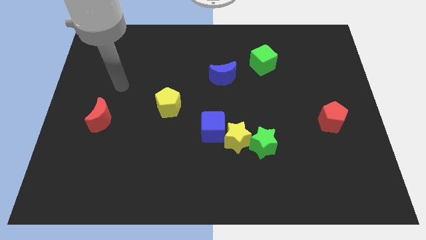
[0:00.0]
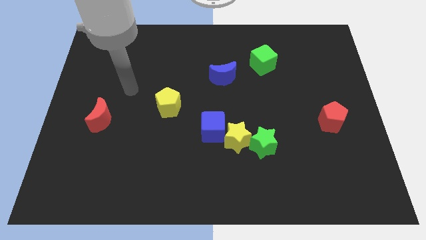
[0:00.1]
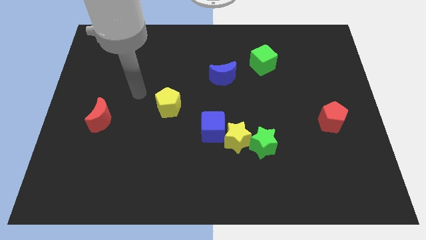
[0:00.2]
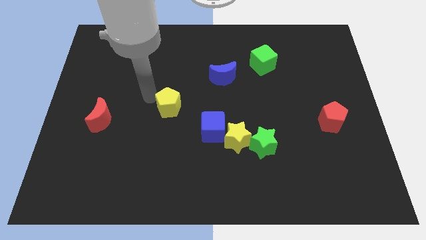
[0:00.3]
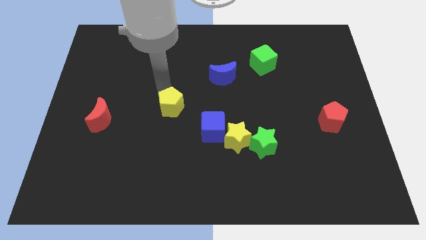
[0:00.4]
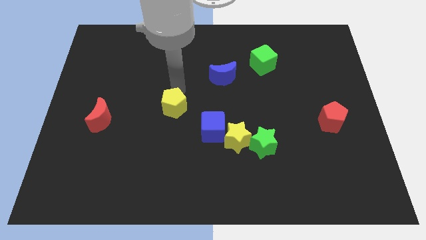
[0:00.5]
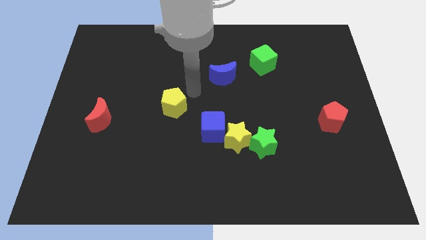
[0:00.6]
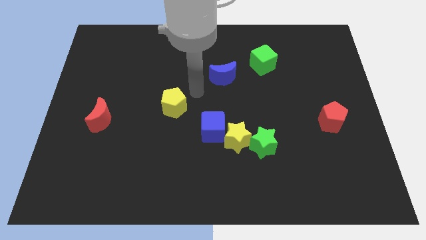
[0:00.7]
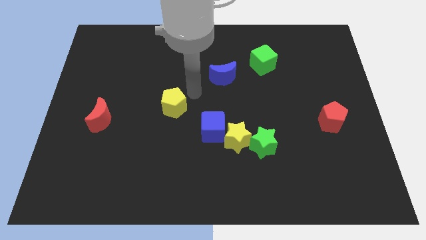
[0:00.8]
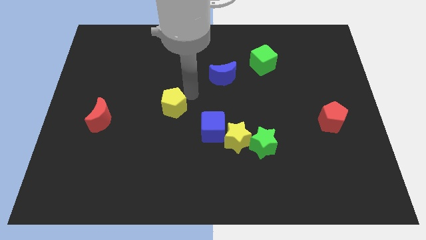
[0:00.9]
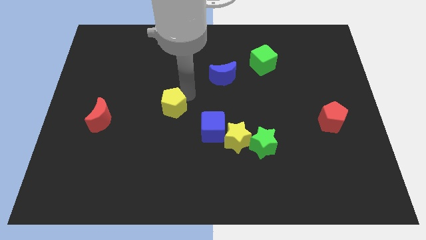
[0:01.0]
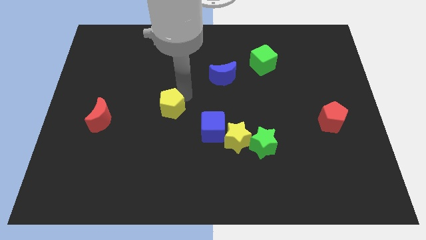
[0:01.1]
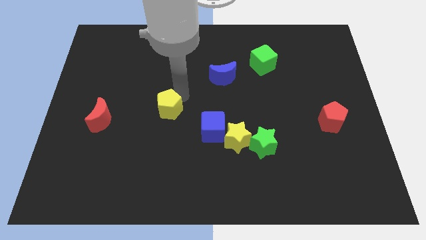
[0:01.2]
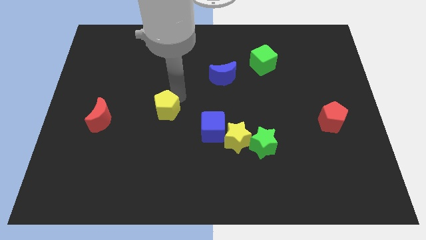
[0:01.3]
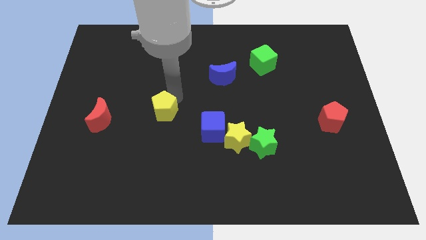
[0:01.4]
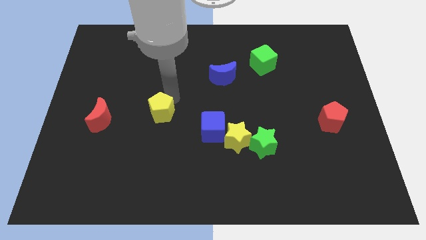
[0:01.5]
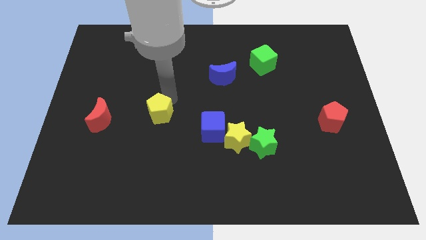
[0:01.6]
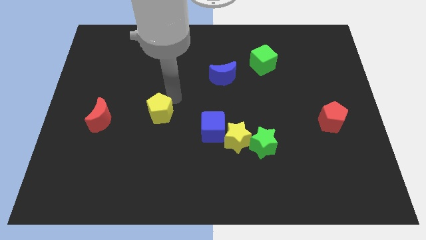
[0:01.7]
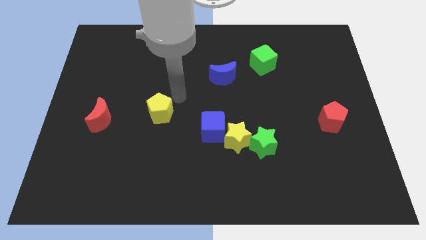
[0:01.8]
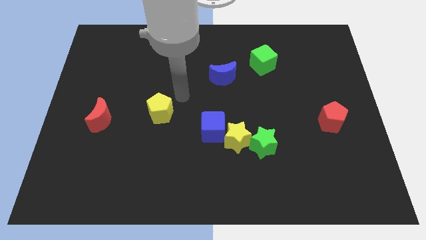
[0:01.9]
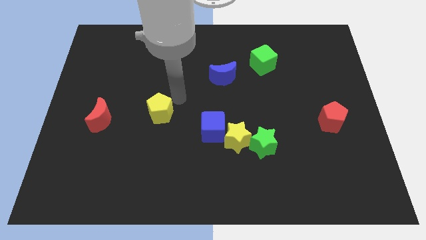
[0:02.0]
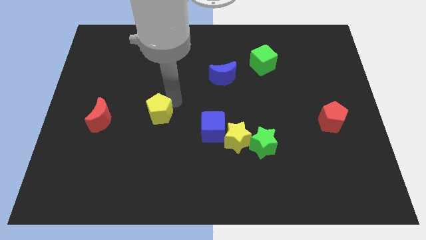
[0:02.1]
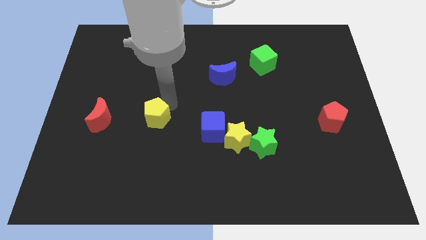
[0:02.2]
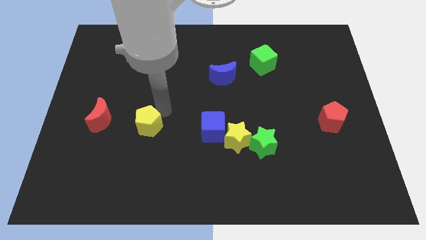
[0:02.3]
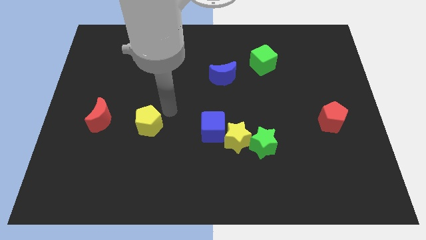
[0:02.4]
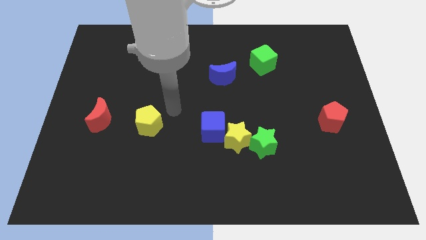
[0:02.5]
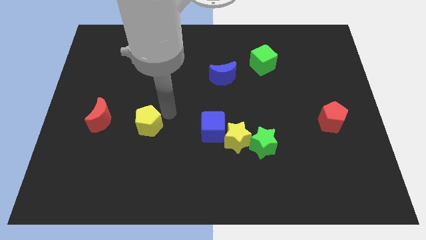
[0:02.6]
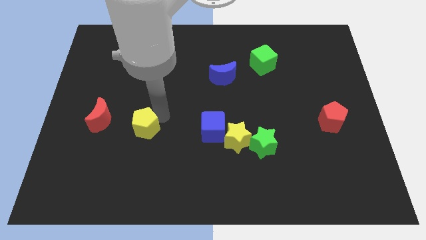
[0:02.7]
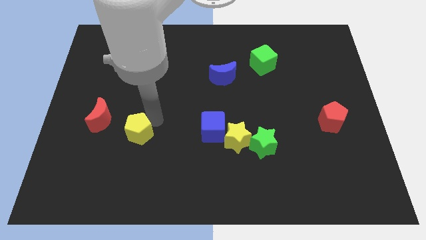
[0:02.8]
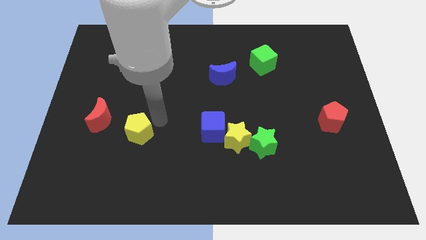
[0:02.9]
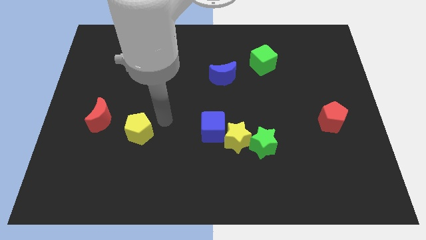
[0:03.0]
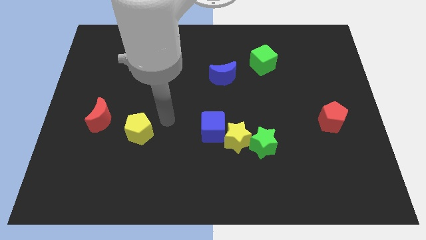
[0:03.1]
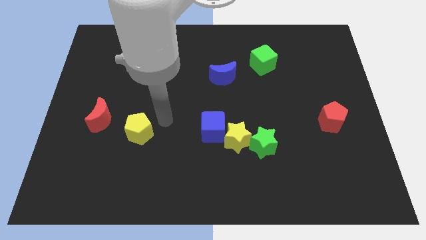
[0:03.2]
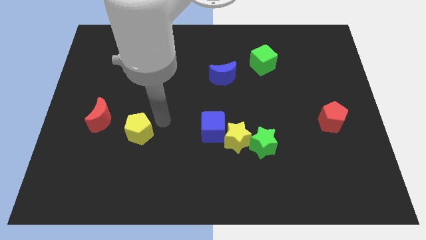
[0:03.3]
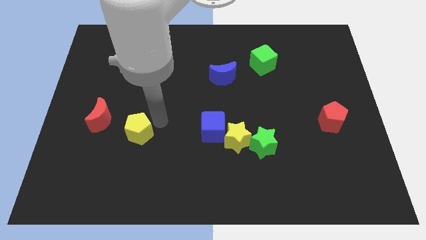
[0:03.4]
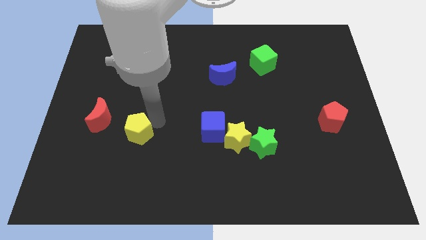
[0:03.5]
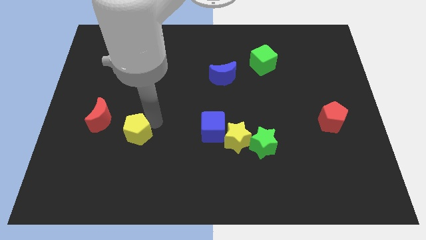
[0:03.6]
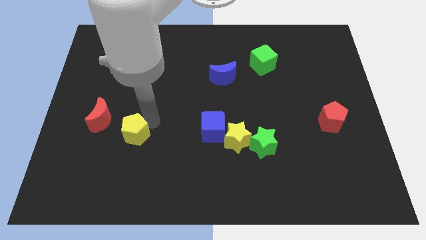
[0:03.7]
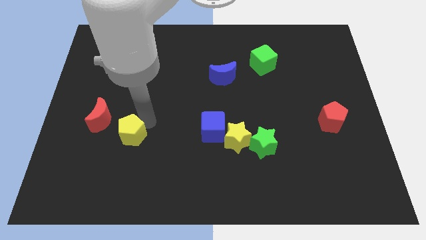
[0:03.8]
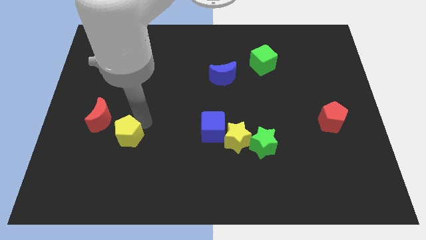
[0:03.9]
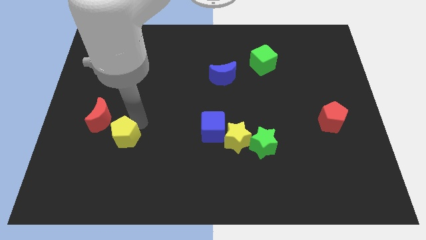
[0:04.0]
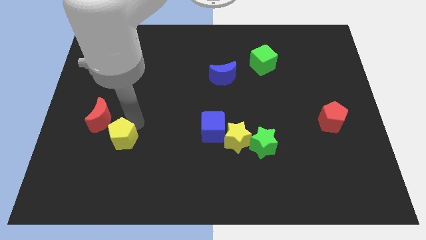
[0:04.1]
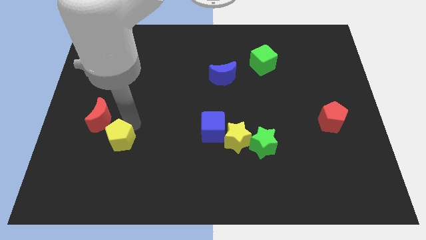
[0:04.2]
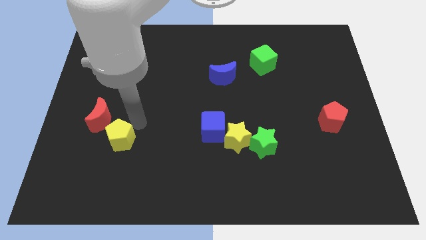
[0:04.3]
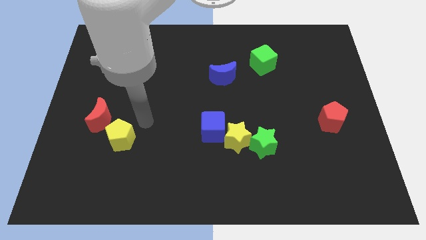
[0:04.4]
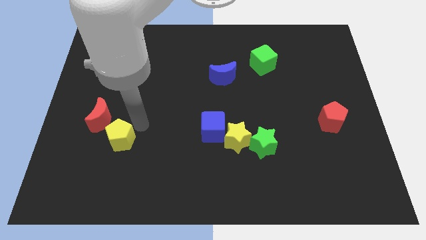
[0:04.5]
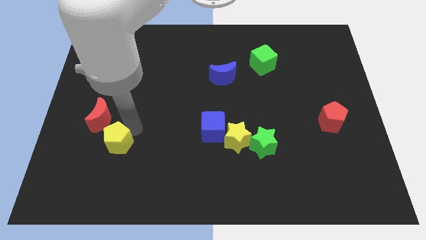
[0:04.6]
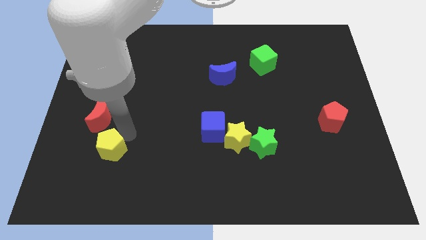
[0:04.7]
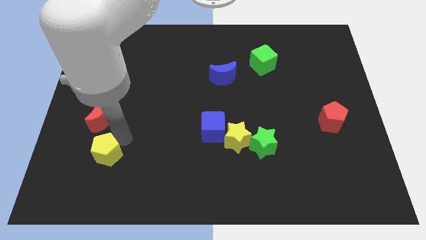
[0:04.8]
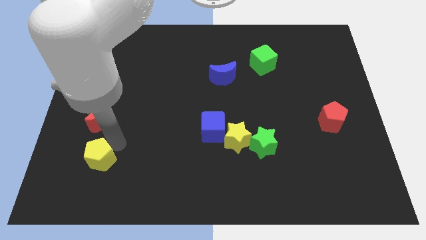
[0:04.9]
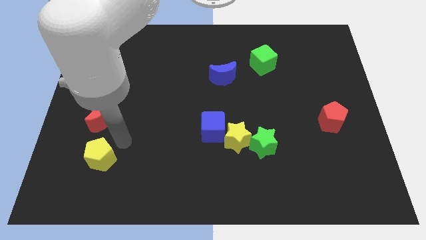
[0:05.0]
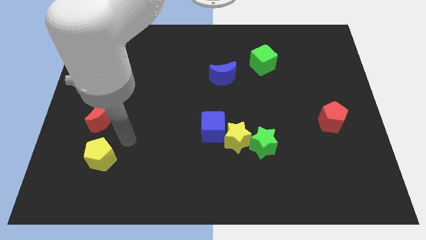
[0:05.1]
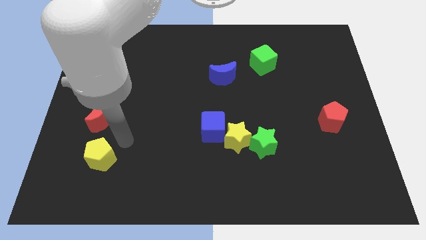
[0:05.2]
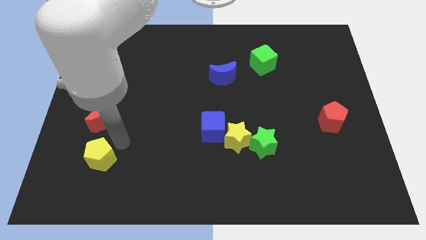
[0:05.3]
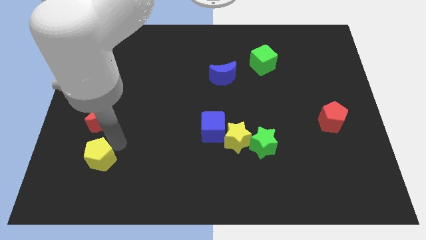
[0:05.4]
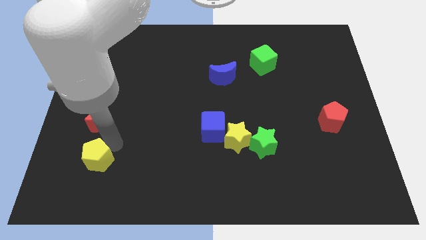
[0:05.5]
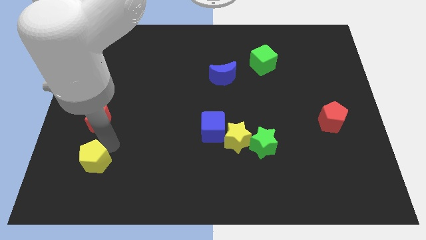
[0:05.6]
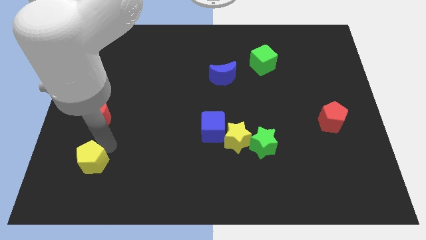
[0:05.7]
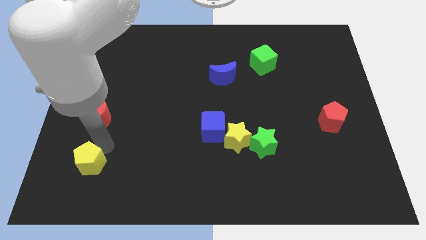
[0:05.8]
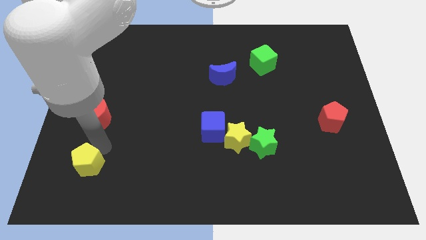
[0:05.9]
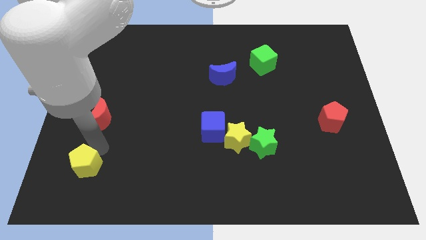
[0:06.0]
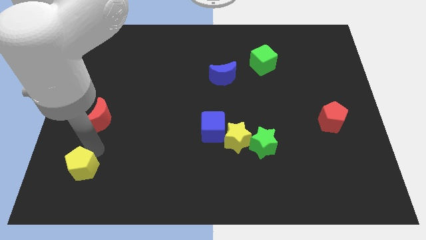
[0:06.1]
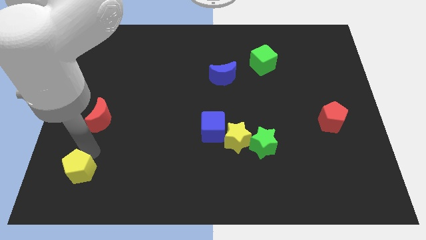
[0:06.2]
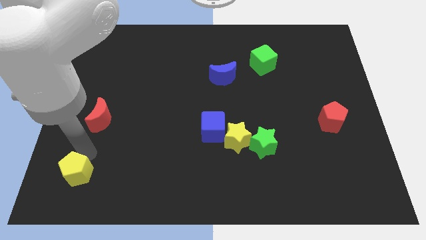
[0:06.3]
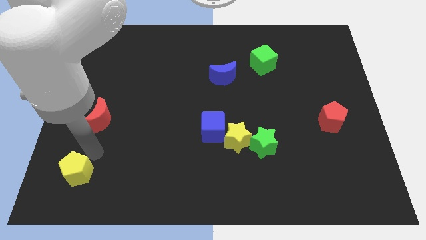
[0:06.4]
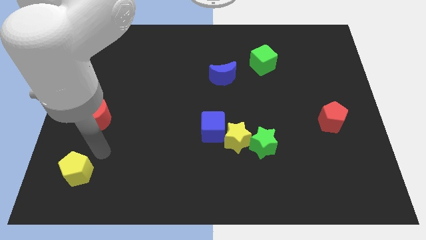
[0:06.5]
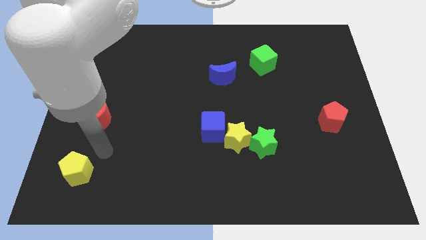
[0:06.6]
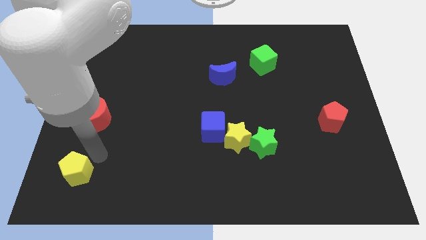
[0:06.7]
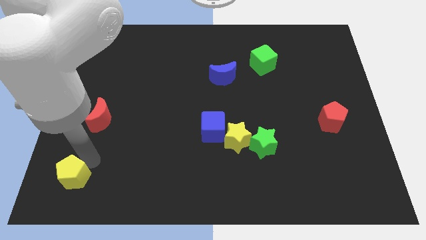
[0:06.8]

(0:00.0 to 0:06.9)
move the yellow pentagon to the bottom left of the board

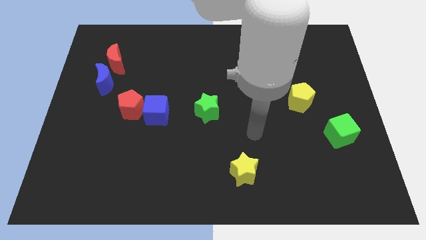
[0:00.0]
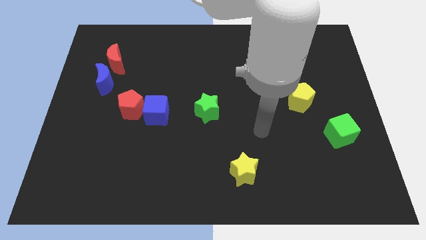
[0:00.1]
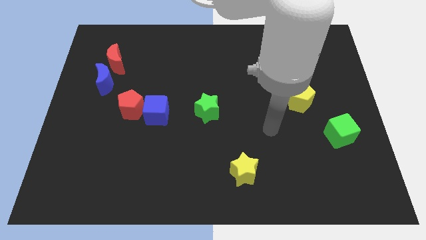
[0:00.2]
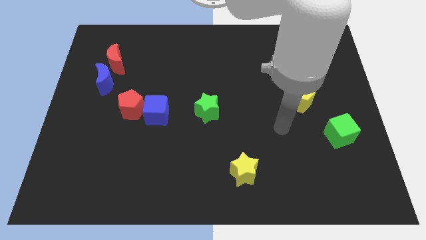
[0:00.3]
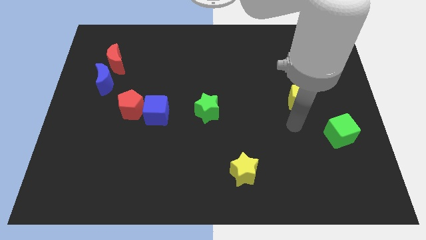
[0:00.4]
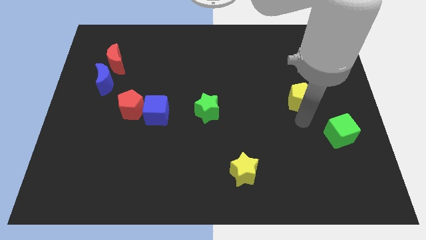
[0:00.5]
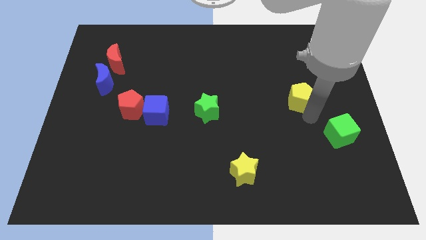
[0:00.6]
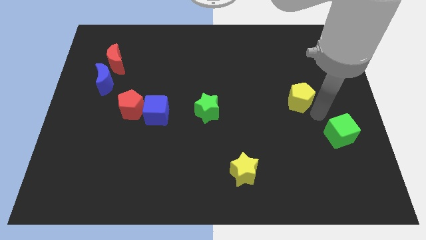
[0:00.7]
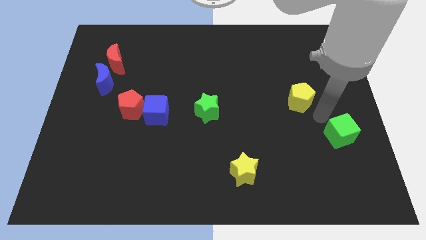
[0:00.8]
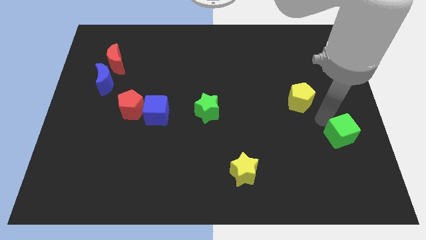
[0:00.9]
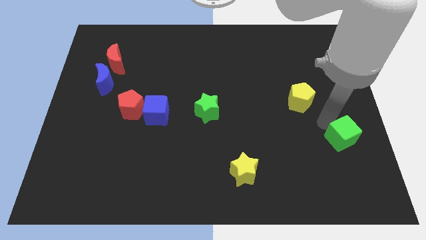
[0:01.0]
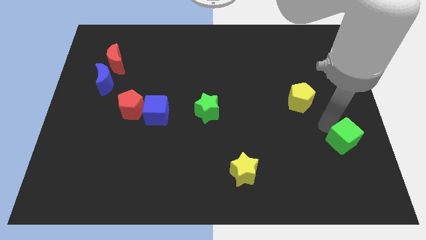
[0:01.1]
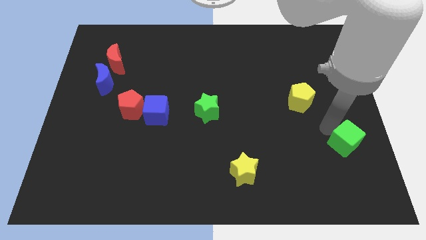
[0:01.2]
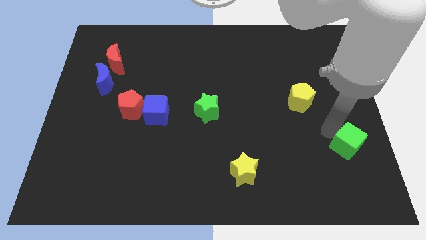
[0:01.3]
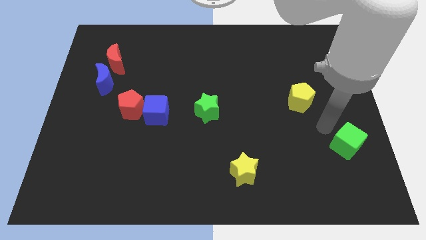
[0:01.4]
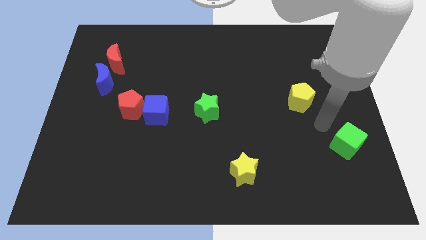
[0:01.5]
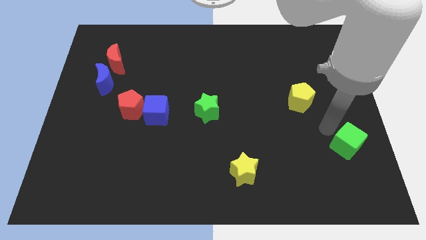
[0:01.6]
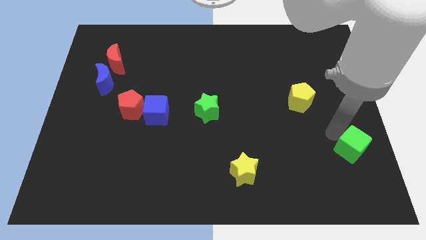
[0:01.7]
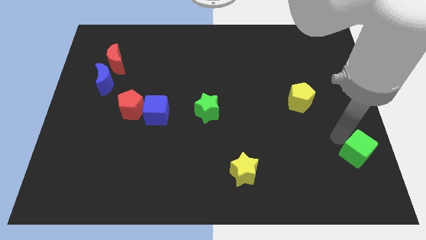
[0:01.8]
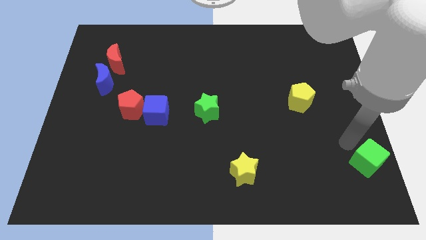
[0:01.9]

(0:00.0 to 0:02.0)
put the green cube to the lower right corner
